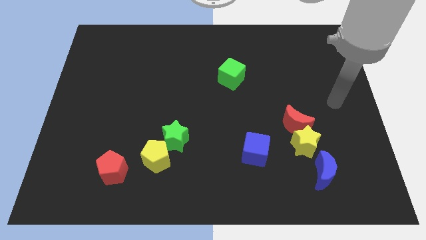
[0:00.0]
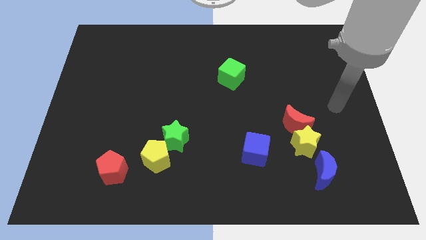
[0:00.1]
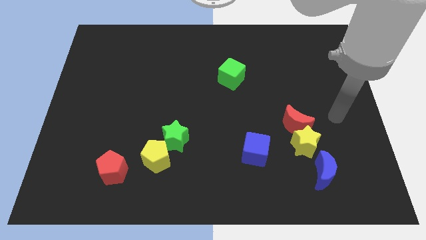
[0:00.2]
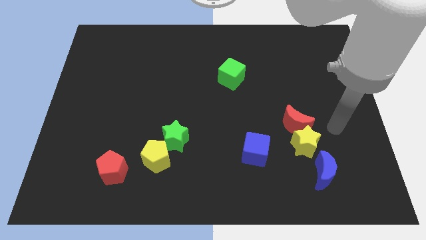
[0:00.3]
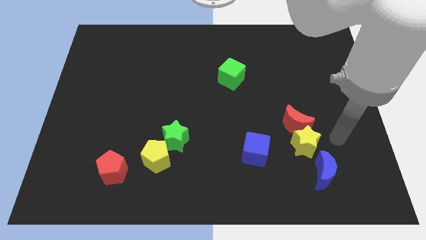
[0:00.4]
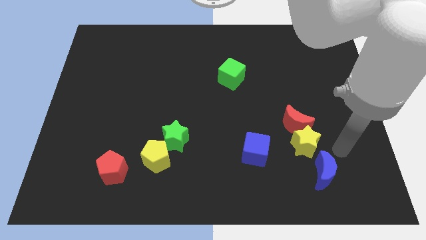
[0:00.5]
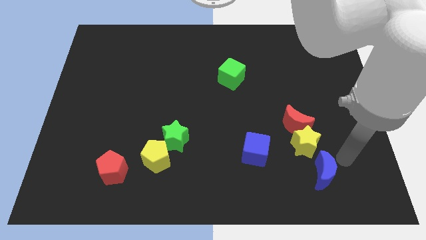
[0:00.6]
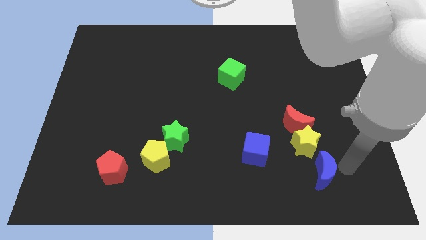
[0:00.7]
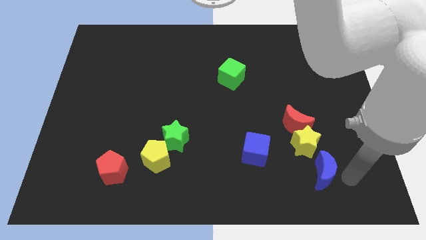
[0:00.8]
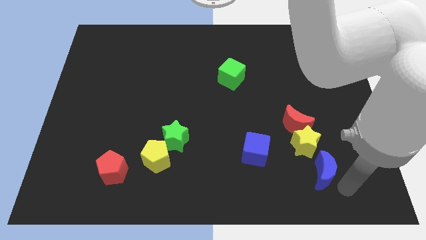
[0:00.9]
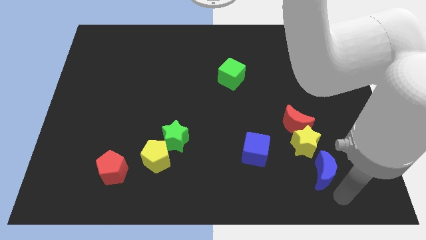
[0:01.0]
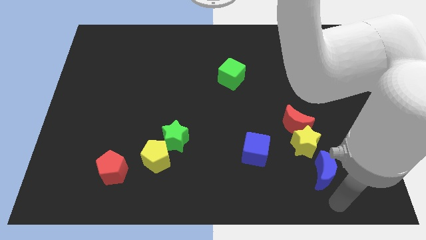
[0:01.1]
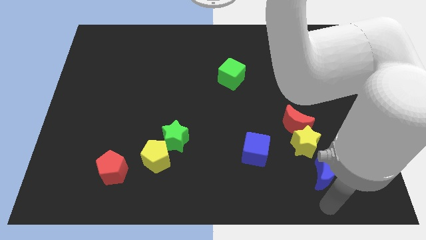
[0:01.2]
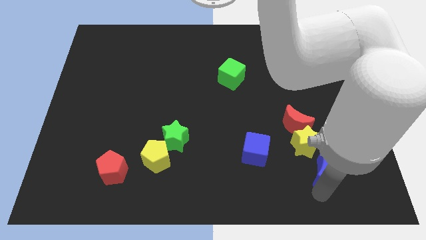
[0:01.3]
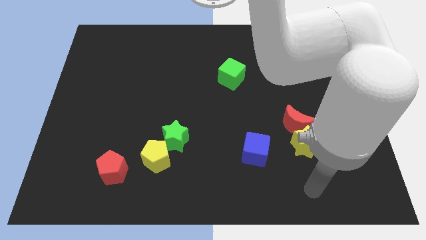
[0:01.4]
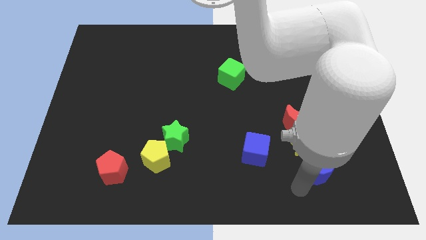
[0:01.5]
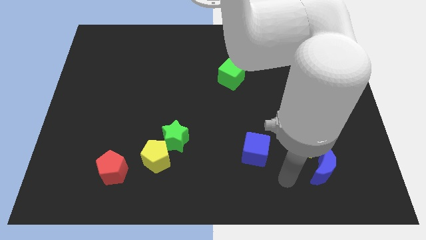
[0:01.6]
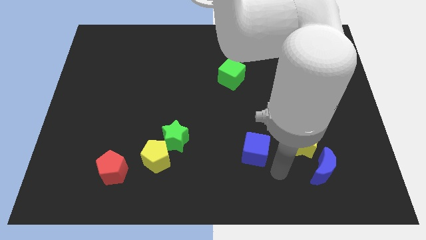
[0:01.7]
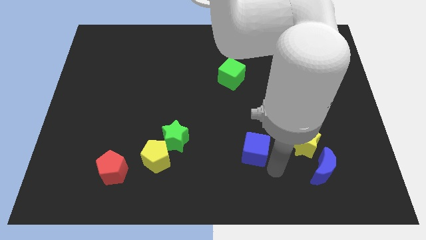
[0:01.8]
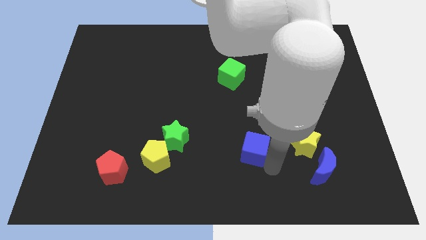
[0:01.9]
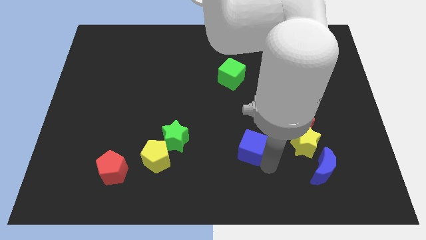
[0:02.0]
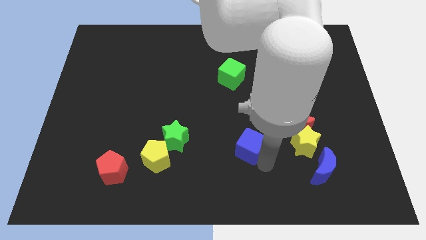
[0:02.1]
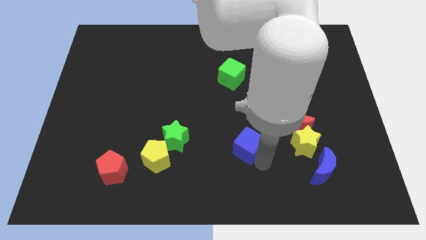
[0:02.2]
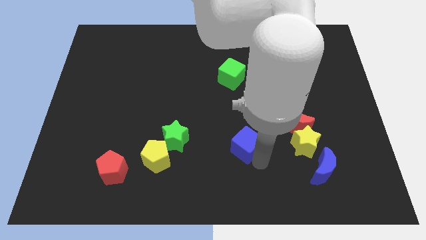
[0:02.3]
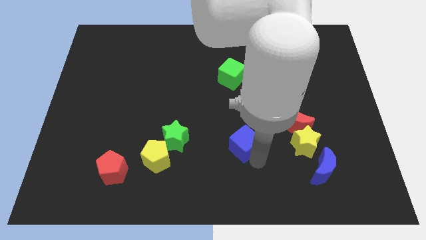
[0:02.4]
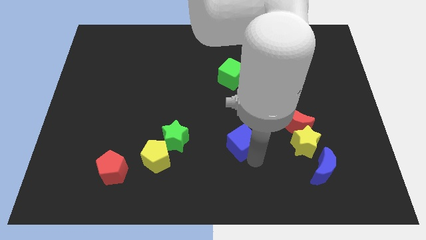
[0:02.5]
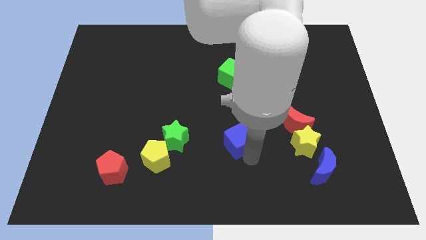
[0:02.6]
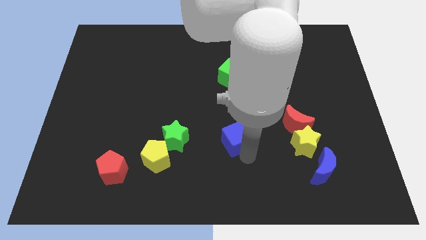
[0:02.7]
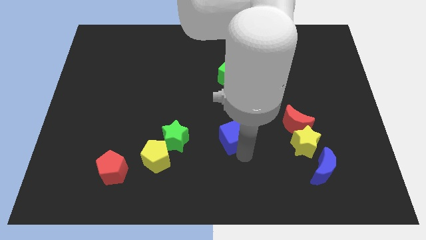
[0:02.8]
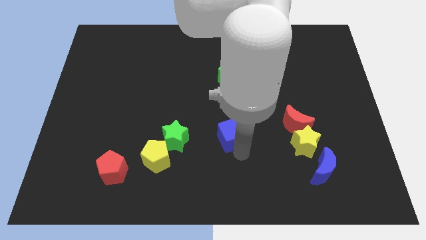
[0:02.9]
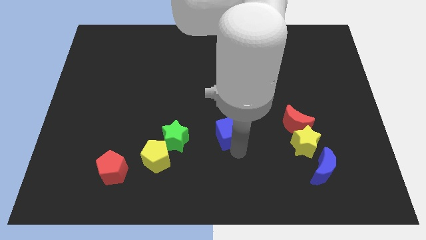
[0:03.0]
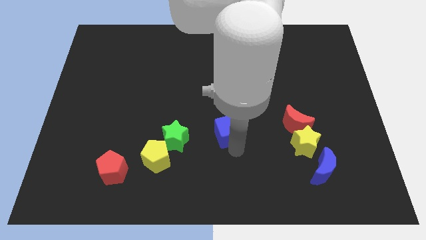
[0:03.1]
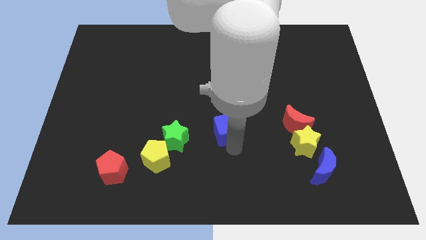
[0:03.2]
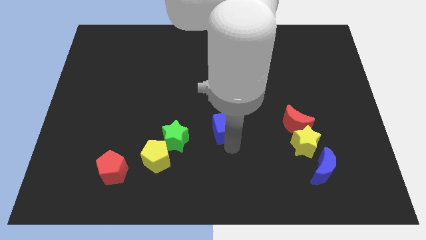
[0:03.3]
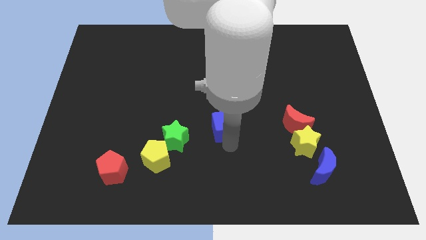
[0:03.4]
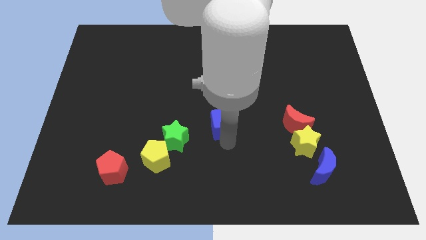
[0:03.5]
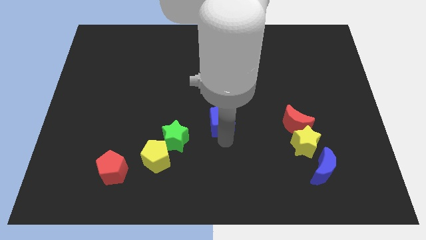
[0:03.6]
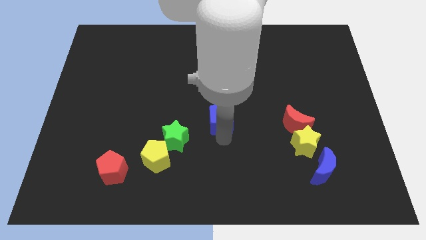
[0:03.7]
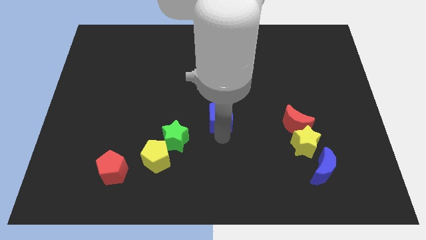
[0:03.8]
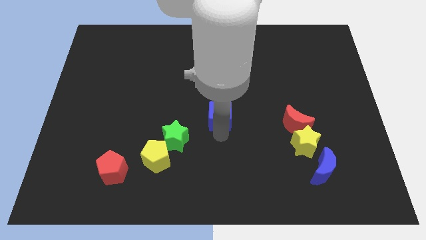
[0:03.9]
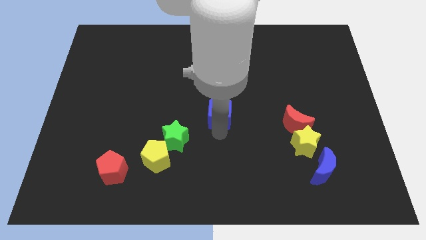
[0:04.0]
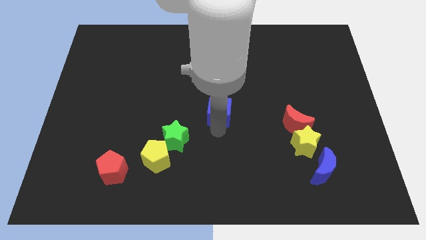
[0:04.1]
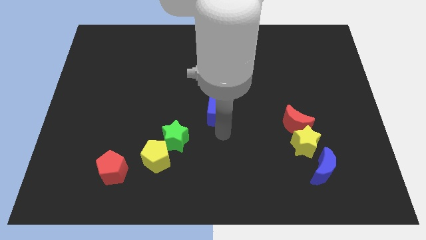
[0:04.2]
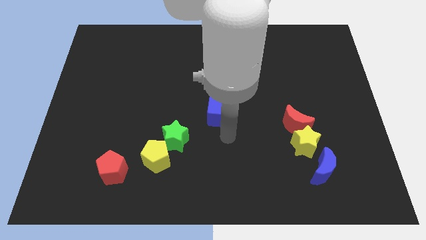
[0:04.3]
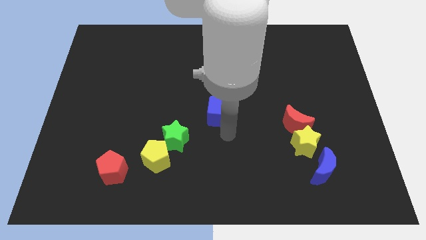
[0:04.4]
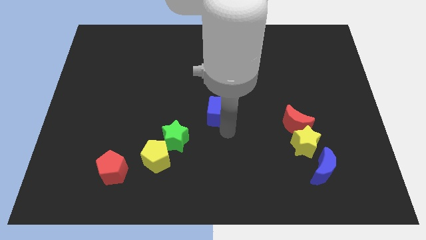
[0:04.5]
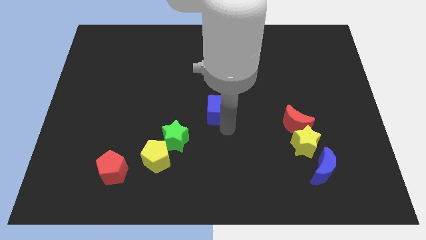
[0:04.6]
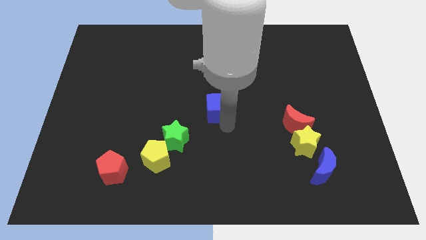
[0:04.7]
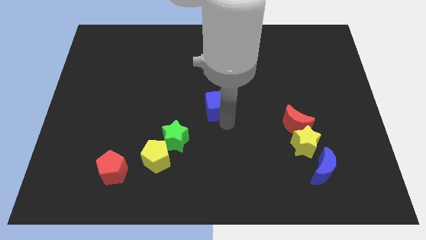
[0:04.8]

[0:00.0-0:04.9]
put the blue cube to the bottom left of the green cube

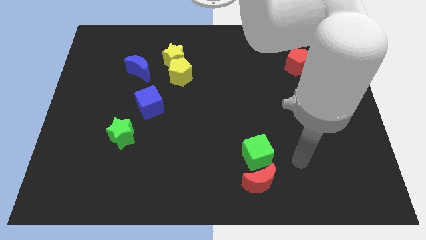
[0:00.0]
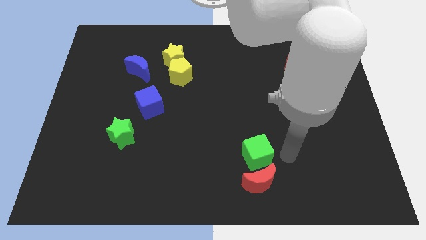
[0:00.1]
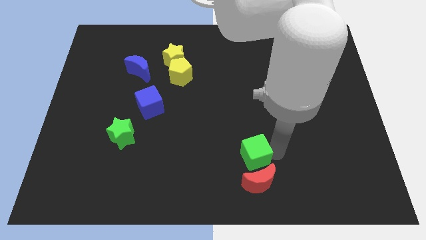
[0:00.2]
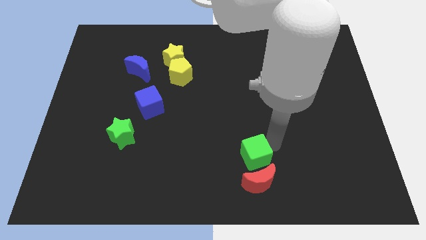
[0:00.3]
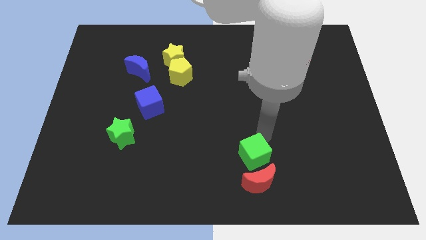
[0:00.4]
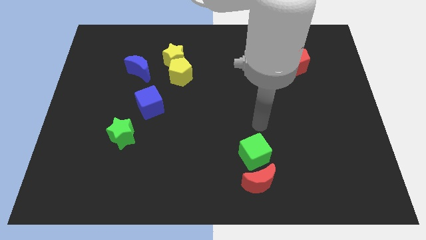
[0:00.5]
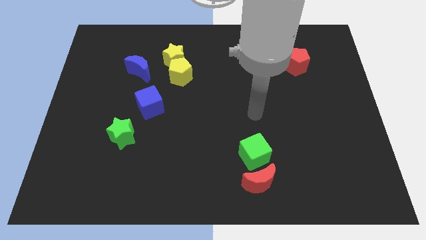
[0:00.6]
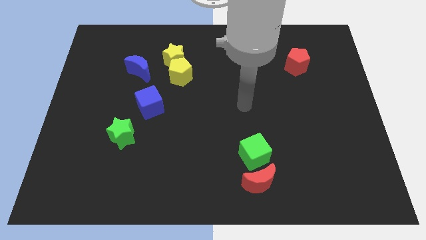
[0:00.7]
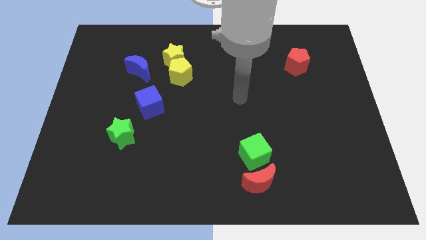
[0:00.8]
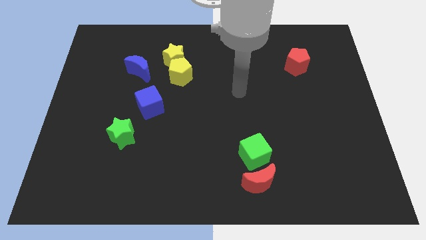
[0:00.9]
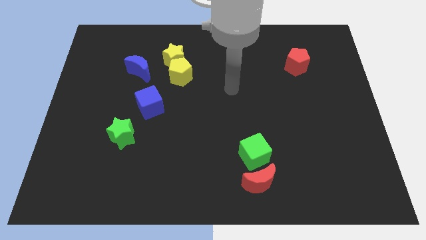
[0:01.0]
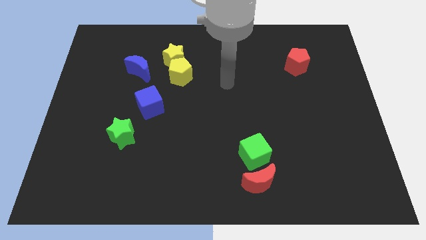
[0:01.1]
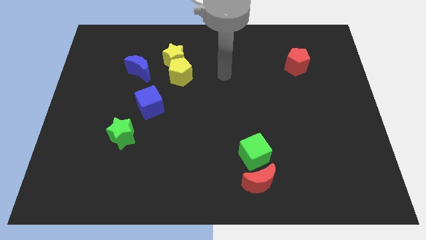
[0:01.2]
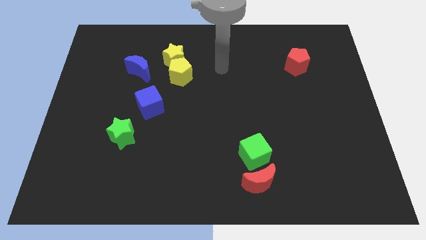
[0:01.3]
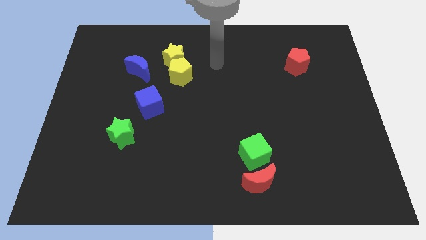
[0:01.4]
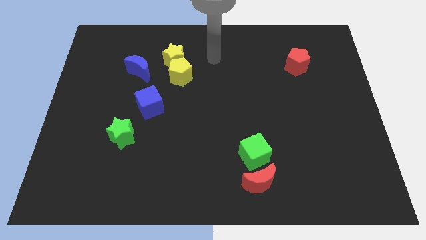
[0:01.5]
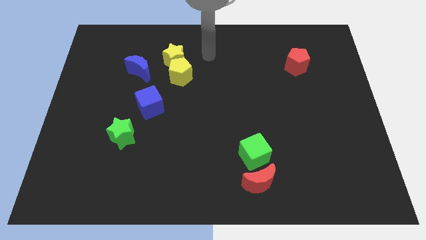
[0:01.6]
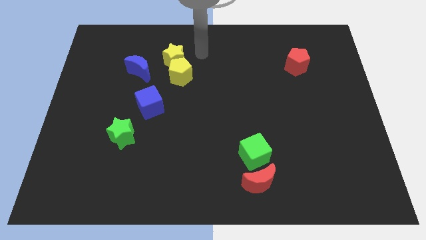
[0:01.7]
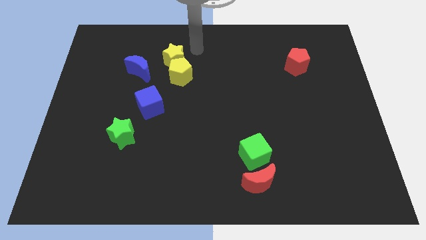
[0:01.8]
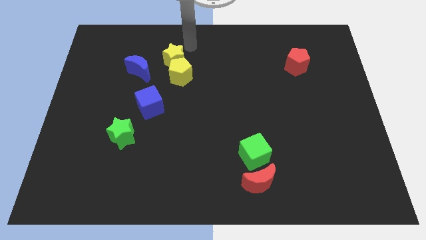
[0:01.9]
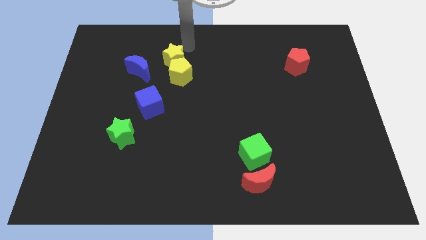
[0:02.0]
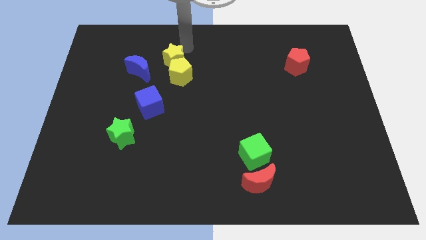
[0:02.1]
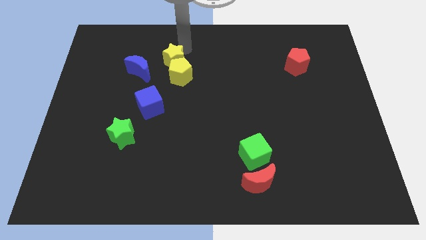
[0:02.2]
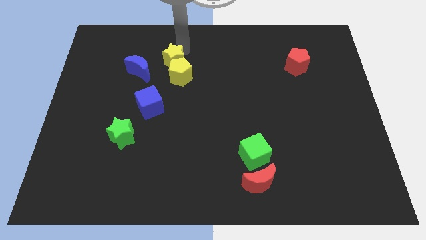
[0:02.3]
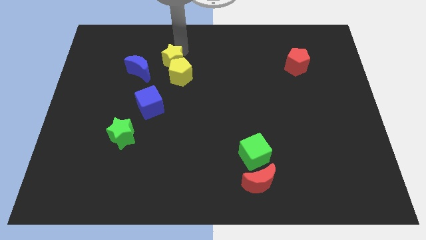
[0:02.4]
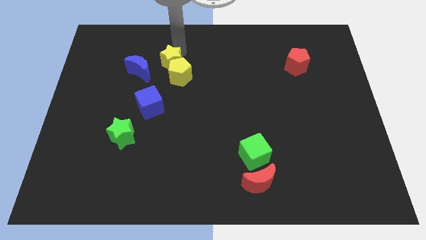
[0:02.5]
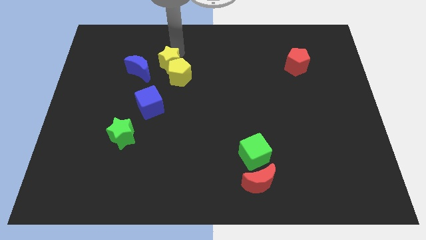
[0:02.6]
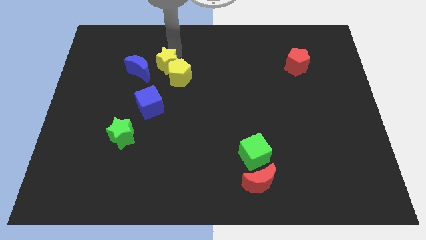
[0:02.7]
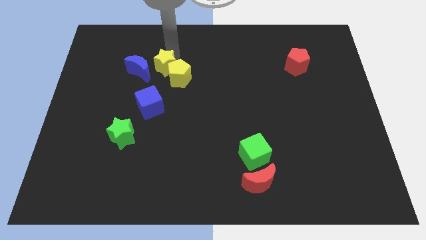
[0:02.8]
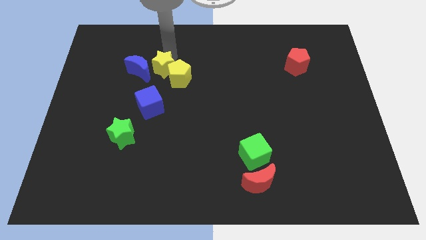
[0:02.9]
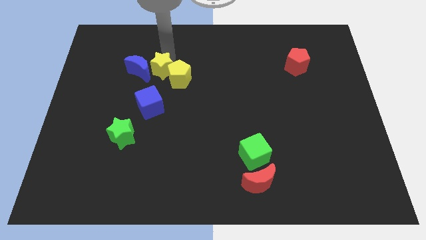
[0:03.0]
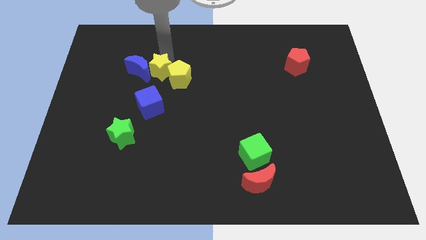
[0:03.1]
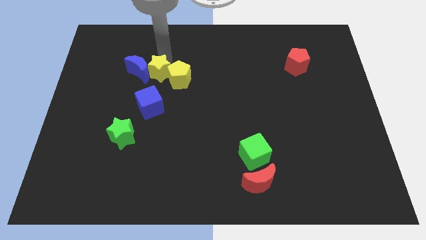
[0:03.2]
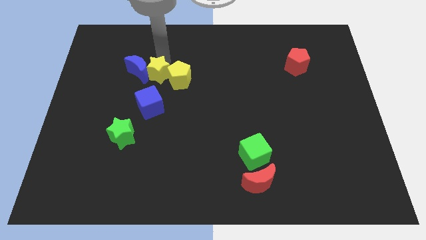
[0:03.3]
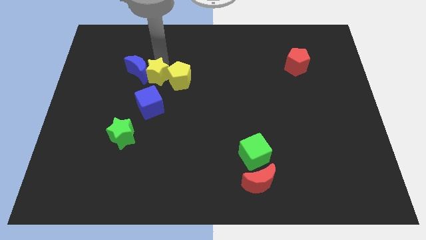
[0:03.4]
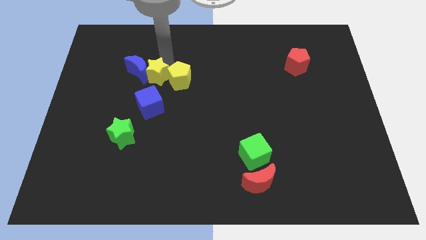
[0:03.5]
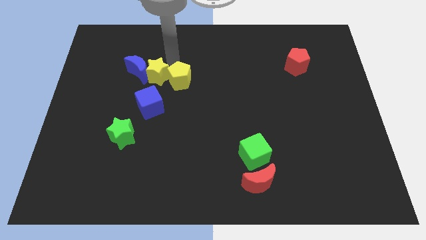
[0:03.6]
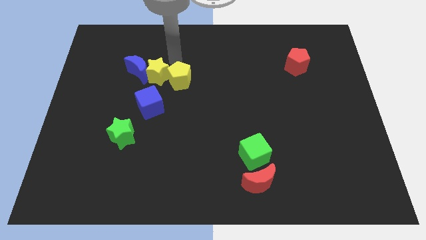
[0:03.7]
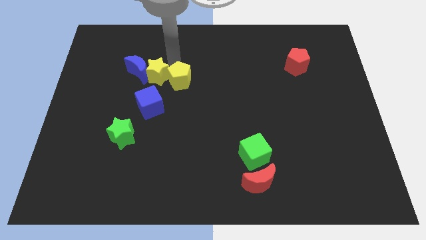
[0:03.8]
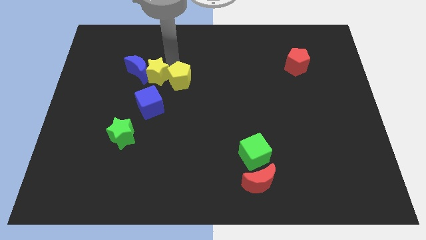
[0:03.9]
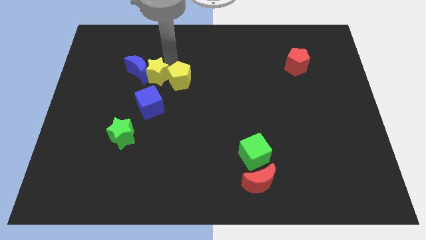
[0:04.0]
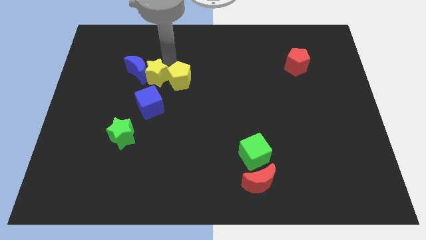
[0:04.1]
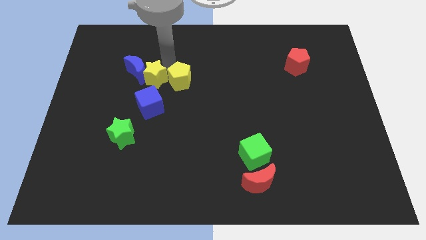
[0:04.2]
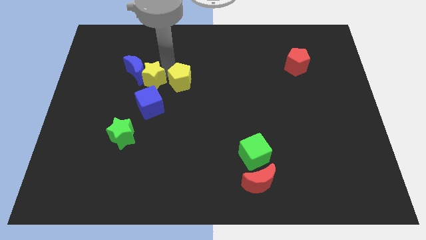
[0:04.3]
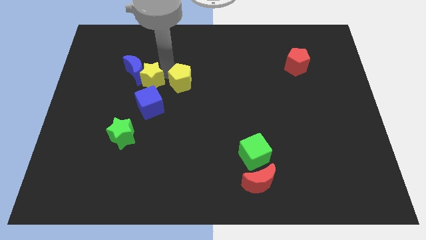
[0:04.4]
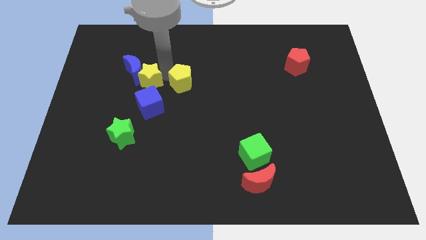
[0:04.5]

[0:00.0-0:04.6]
slide the yellow star to the bottom side of the blue moon
